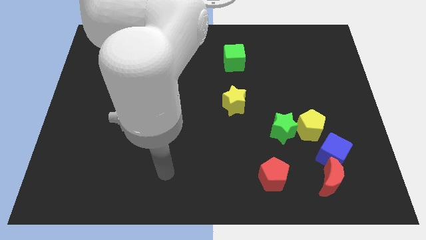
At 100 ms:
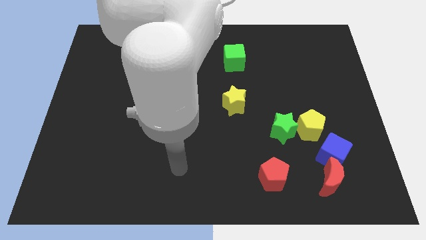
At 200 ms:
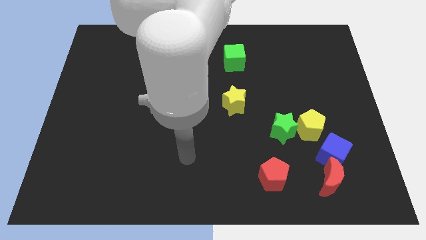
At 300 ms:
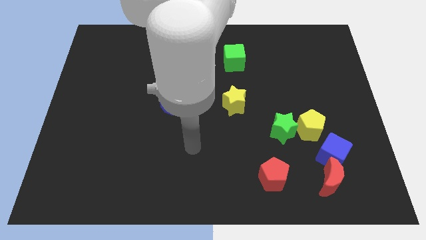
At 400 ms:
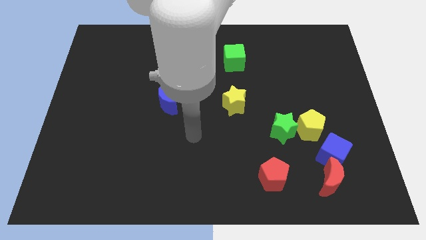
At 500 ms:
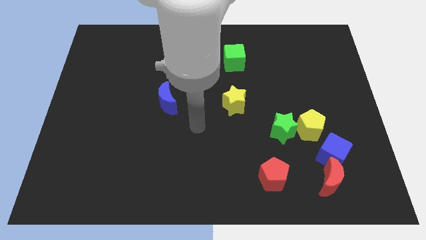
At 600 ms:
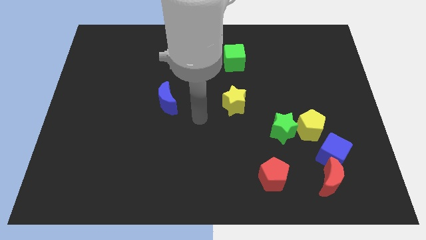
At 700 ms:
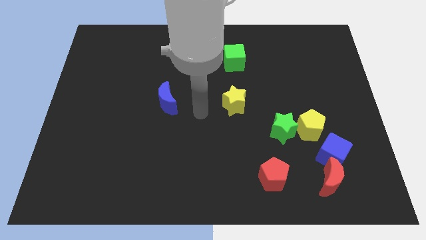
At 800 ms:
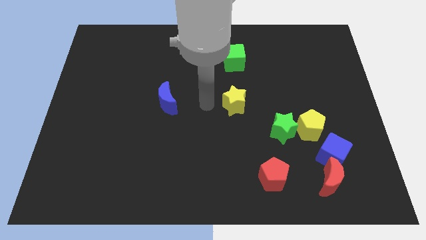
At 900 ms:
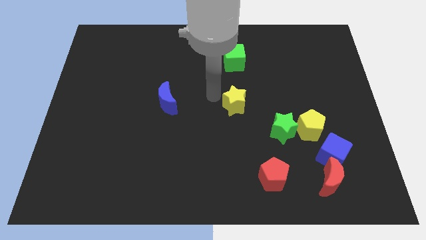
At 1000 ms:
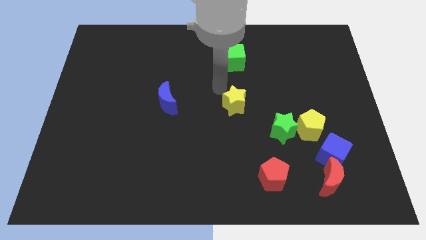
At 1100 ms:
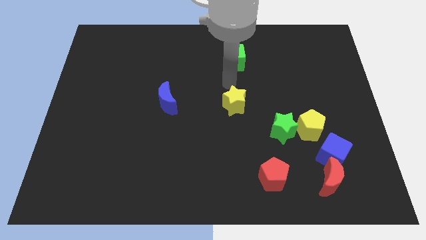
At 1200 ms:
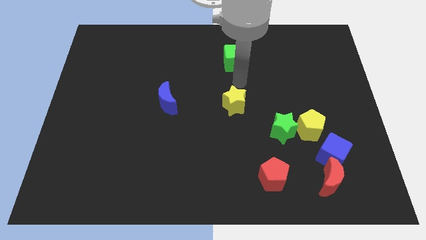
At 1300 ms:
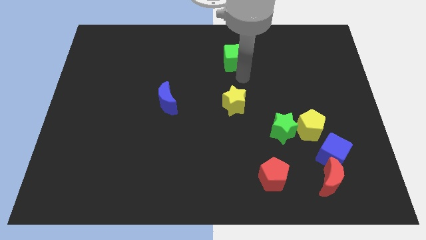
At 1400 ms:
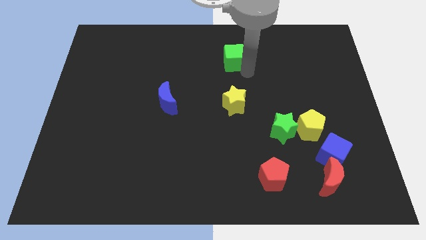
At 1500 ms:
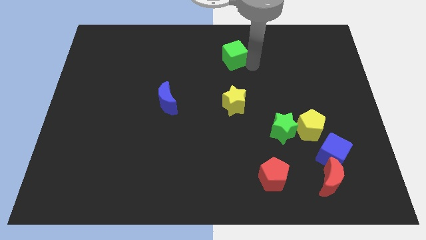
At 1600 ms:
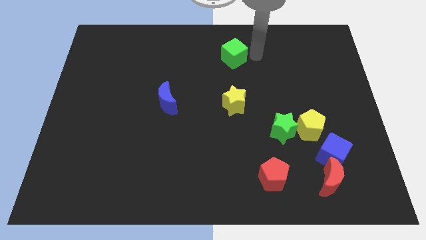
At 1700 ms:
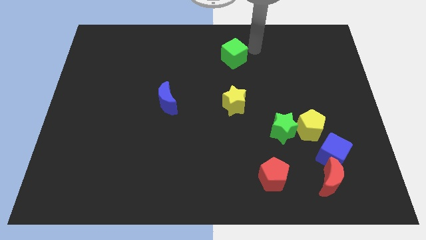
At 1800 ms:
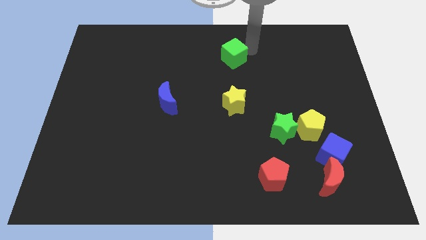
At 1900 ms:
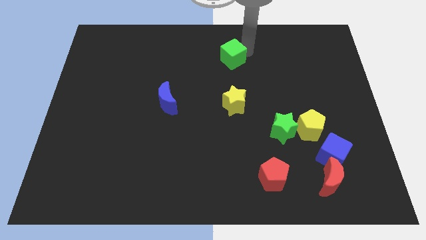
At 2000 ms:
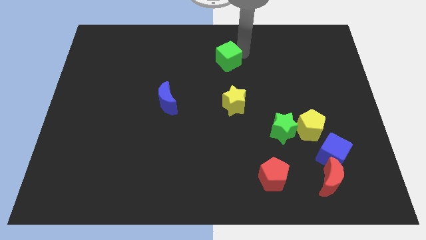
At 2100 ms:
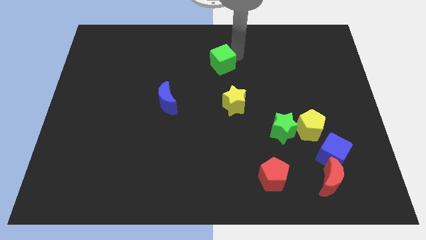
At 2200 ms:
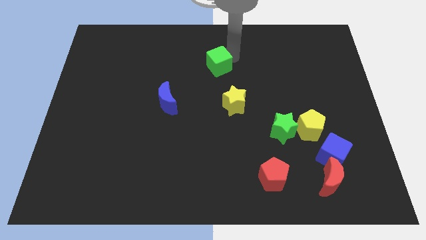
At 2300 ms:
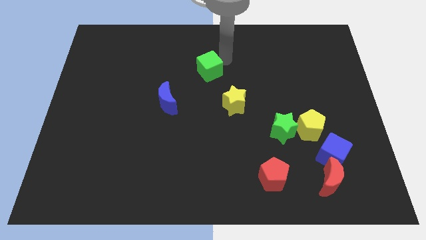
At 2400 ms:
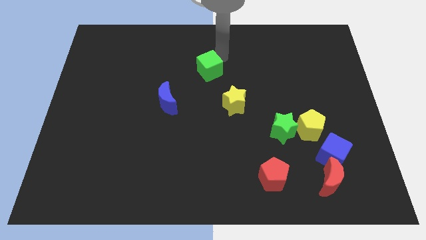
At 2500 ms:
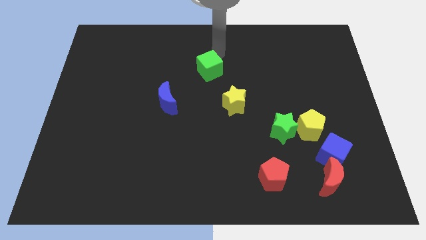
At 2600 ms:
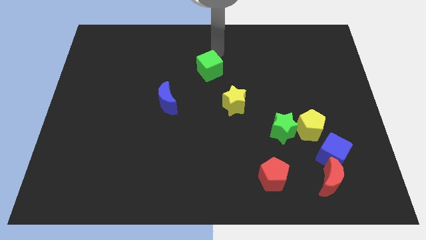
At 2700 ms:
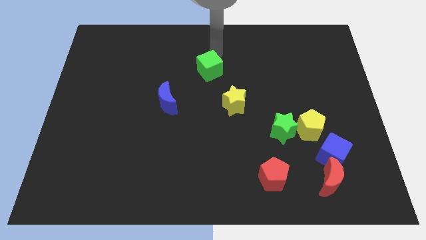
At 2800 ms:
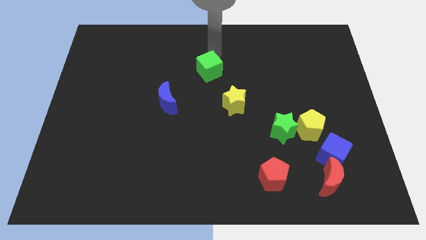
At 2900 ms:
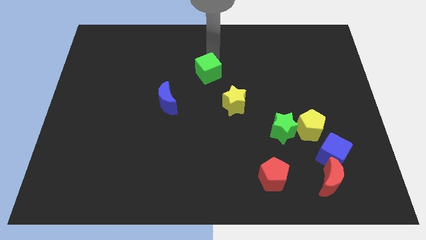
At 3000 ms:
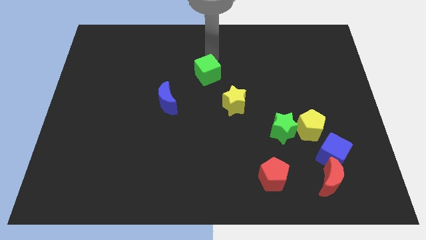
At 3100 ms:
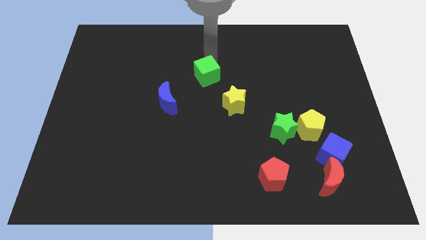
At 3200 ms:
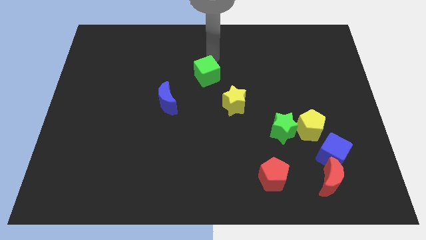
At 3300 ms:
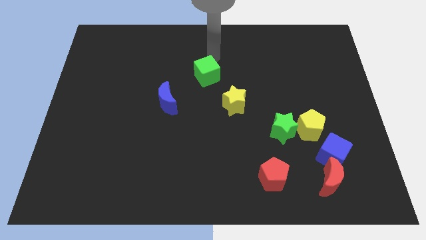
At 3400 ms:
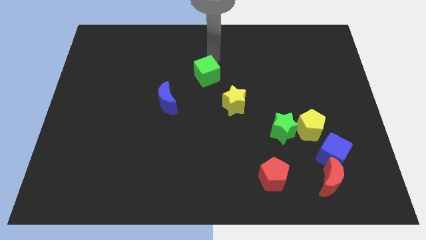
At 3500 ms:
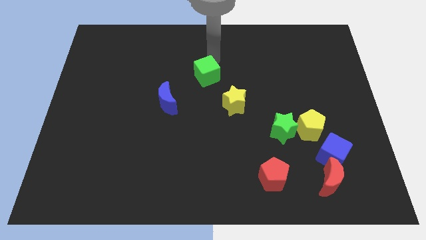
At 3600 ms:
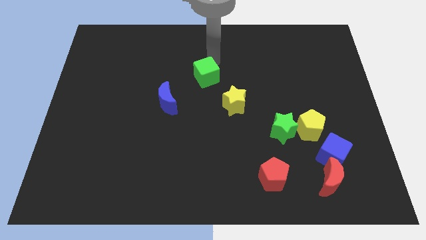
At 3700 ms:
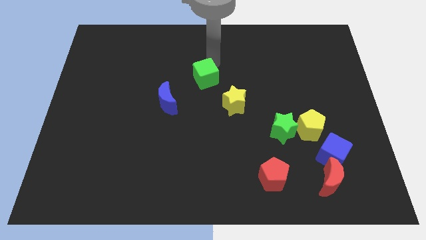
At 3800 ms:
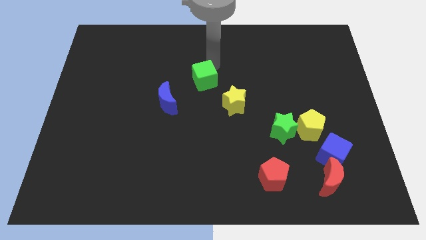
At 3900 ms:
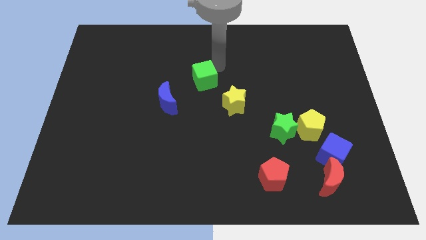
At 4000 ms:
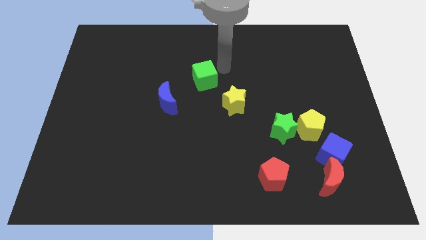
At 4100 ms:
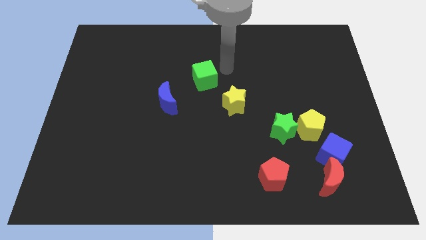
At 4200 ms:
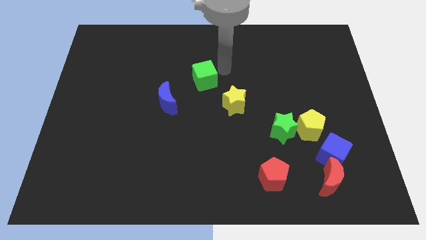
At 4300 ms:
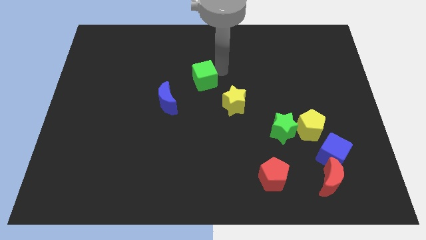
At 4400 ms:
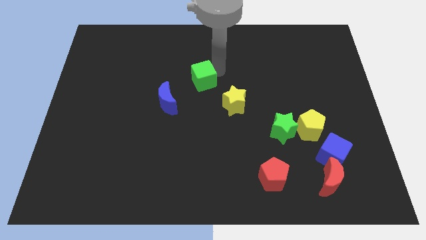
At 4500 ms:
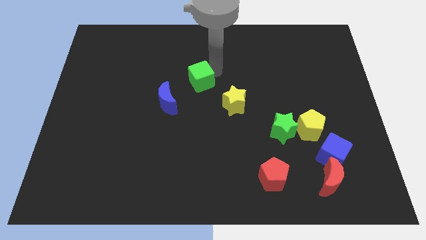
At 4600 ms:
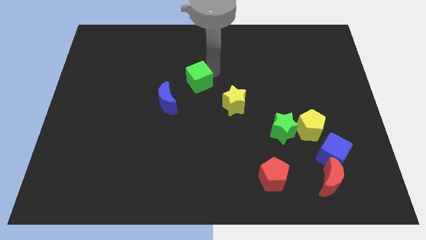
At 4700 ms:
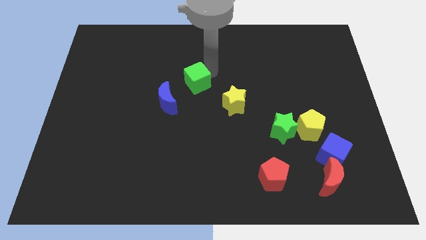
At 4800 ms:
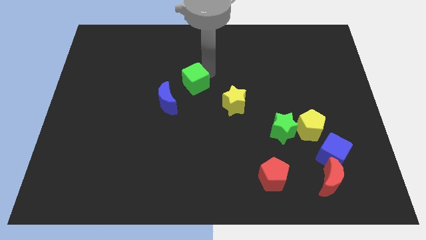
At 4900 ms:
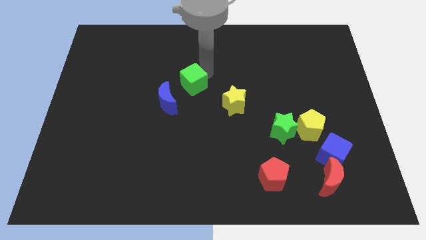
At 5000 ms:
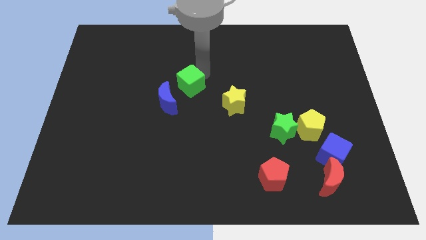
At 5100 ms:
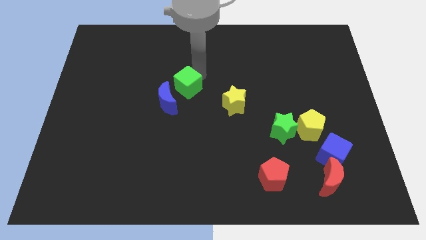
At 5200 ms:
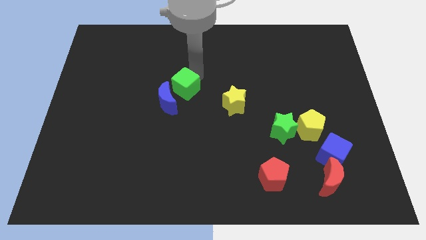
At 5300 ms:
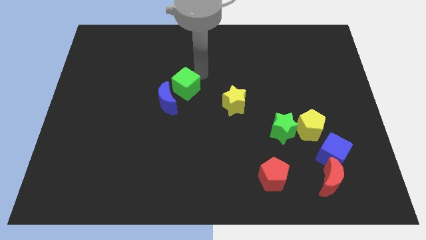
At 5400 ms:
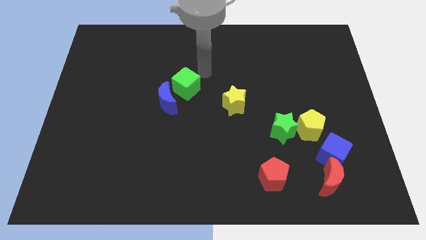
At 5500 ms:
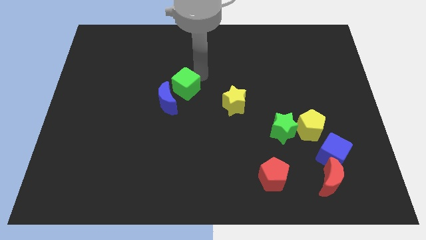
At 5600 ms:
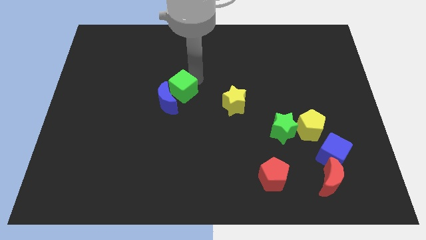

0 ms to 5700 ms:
put the green cube towards the blue moon

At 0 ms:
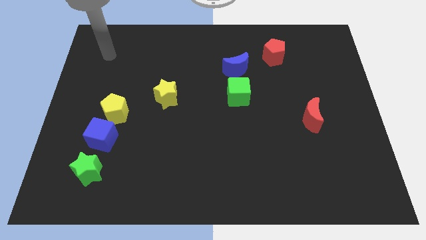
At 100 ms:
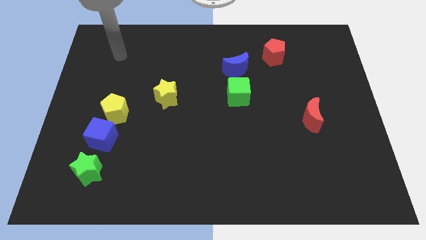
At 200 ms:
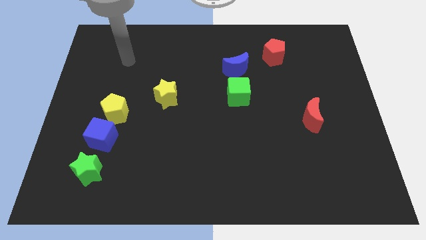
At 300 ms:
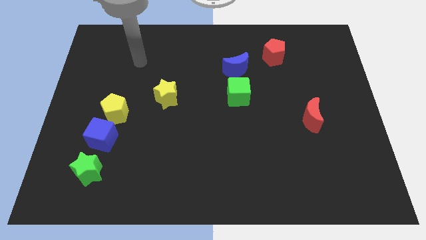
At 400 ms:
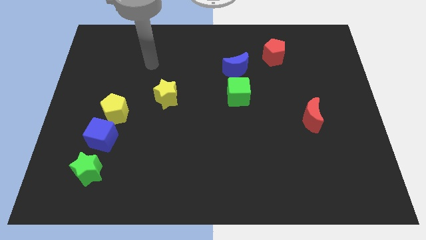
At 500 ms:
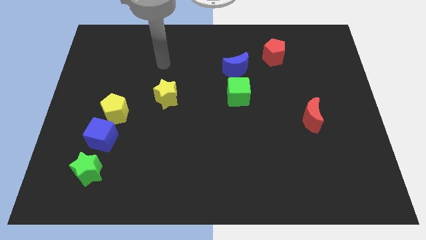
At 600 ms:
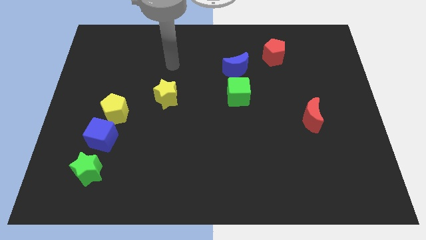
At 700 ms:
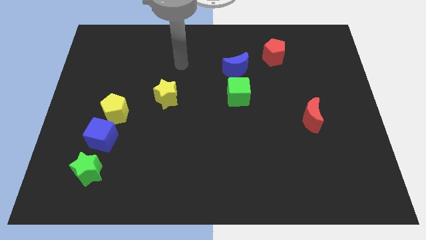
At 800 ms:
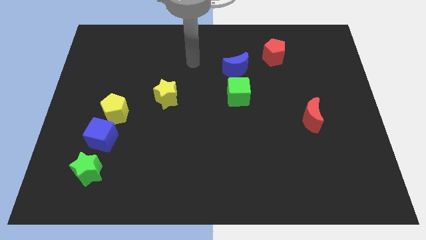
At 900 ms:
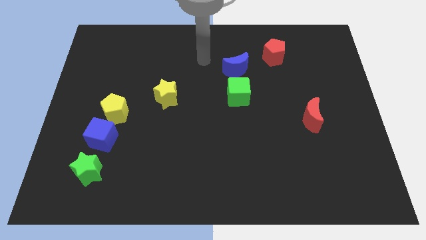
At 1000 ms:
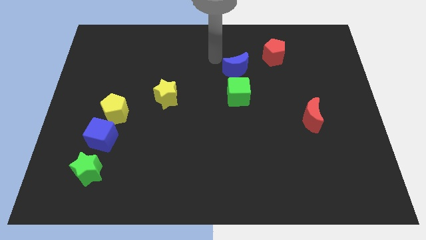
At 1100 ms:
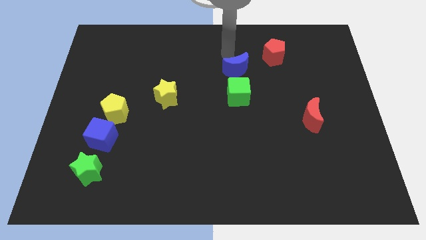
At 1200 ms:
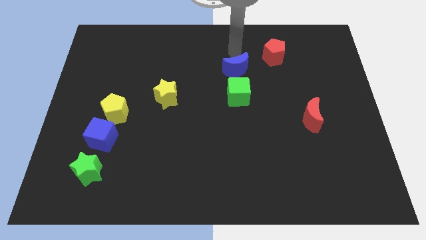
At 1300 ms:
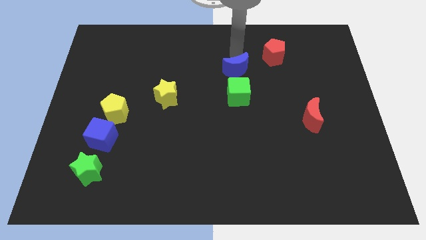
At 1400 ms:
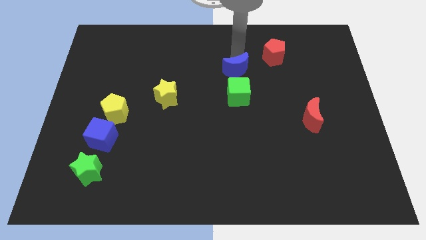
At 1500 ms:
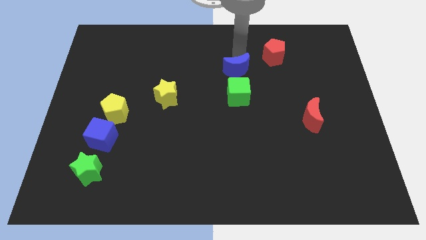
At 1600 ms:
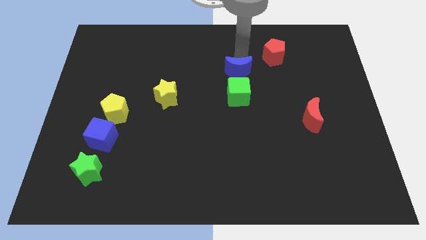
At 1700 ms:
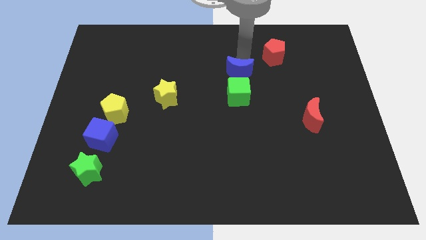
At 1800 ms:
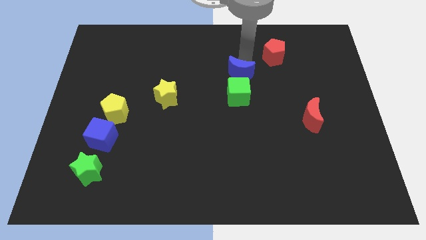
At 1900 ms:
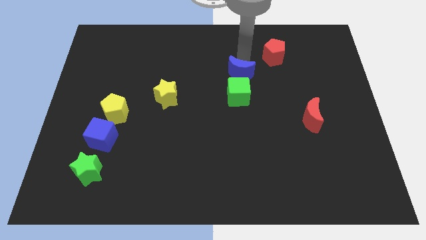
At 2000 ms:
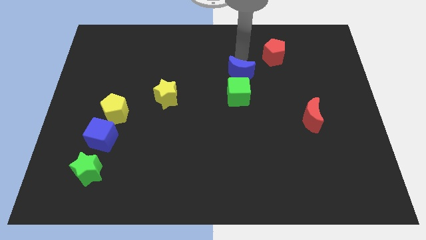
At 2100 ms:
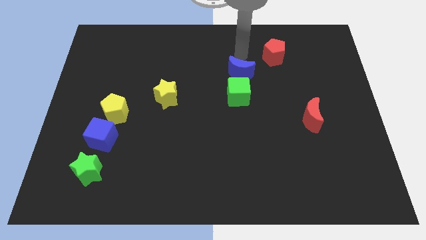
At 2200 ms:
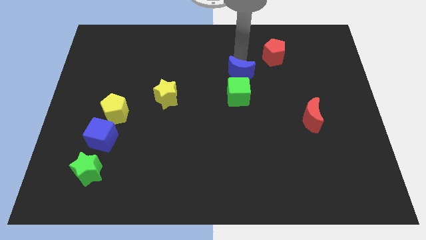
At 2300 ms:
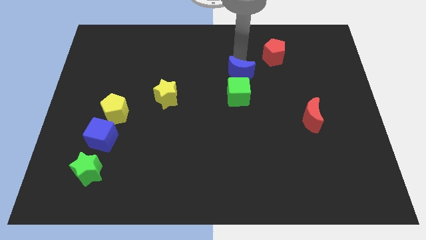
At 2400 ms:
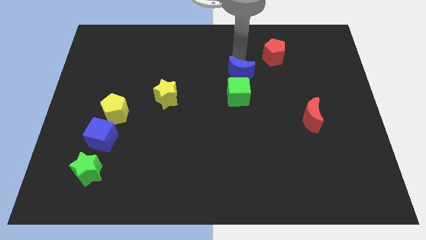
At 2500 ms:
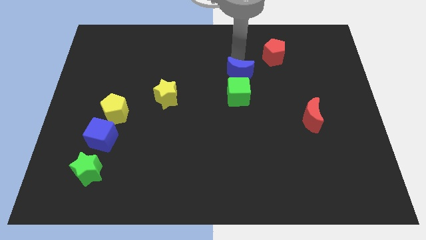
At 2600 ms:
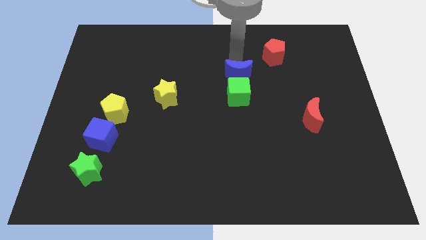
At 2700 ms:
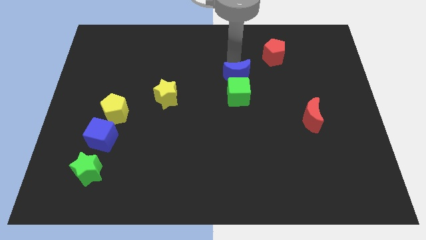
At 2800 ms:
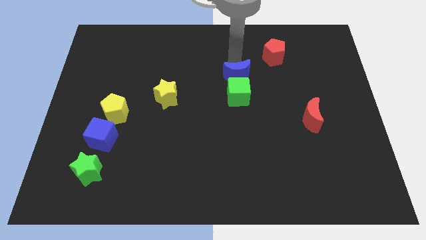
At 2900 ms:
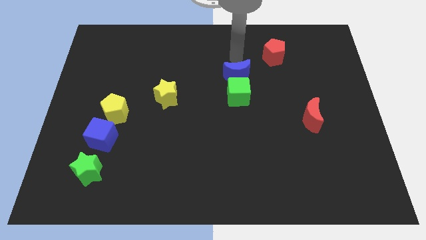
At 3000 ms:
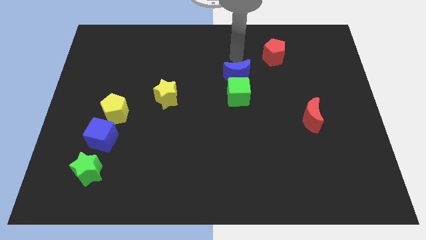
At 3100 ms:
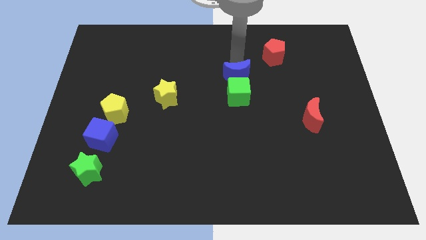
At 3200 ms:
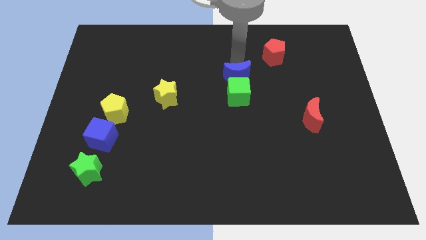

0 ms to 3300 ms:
put the blue moon towards the green cube

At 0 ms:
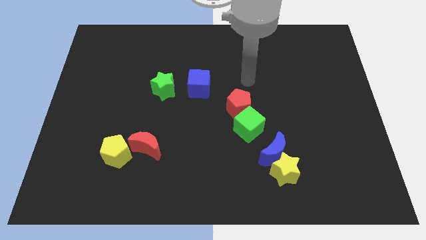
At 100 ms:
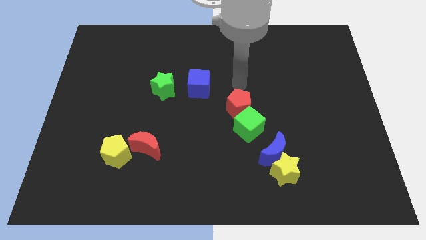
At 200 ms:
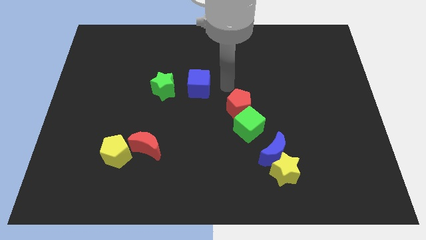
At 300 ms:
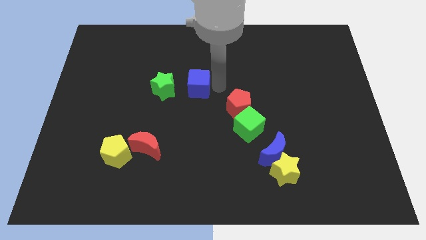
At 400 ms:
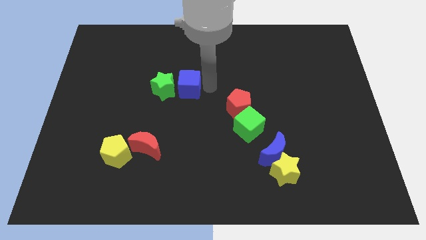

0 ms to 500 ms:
put the blue cube towards the green star
